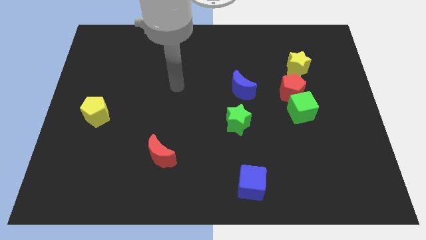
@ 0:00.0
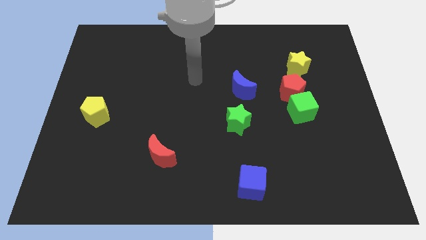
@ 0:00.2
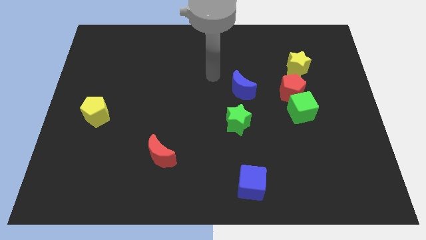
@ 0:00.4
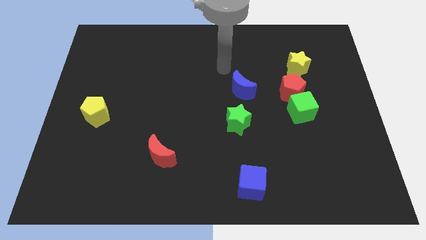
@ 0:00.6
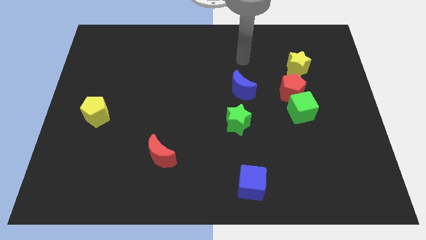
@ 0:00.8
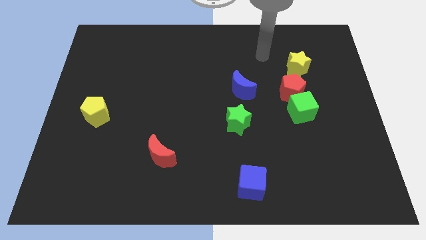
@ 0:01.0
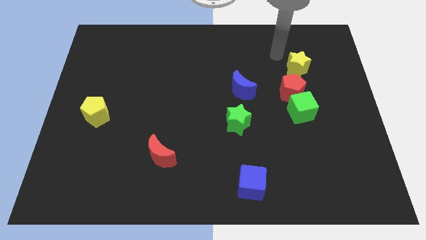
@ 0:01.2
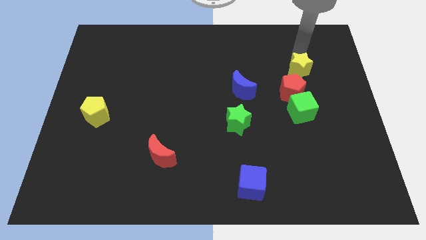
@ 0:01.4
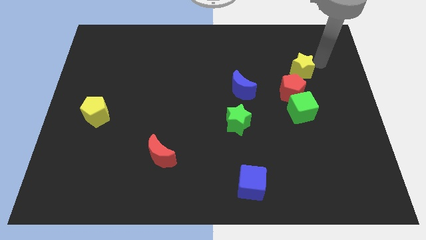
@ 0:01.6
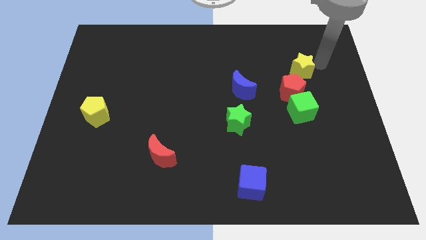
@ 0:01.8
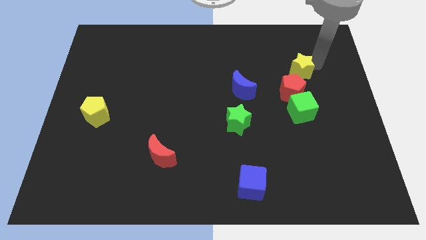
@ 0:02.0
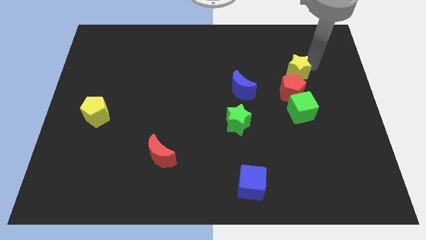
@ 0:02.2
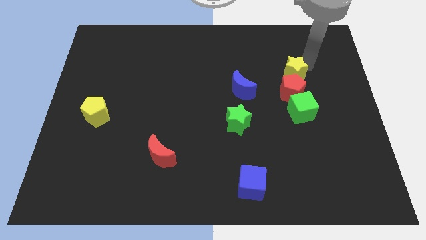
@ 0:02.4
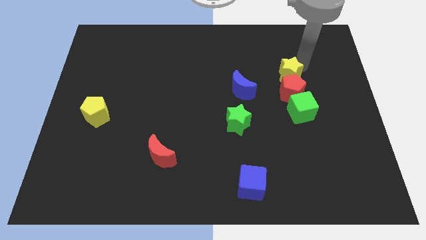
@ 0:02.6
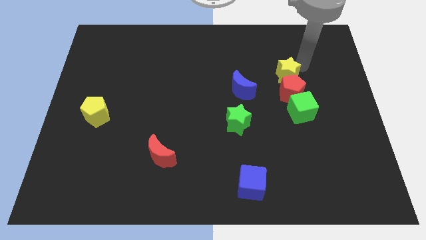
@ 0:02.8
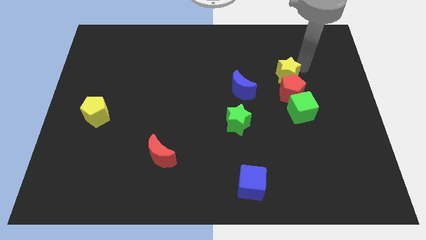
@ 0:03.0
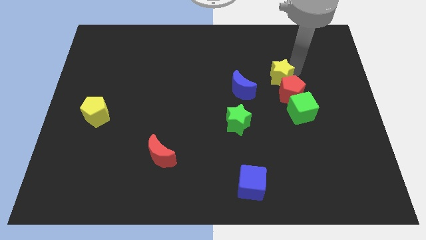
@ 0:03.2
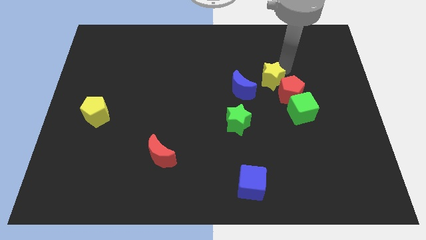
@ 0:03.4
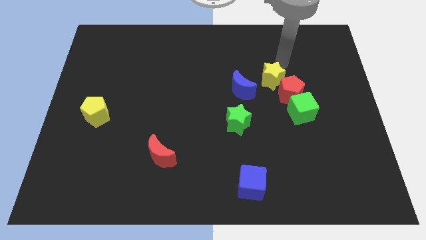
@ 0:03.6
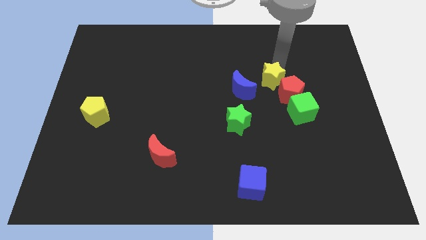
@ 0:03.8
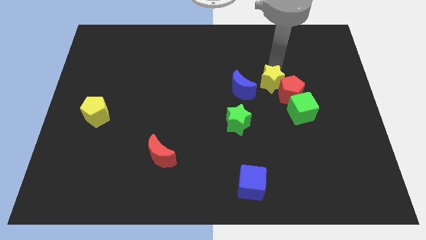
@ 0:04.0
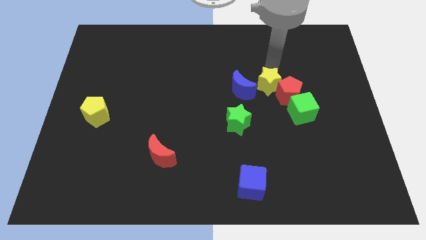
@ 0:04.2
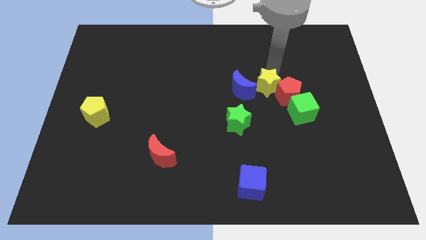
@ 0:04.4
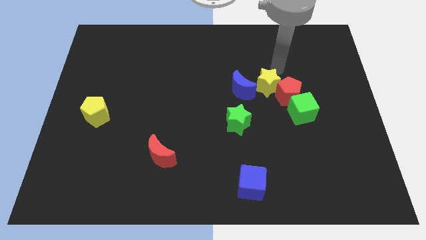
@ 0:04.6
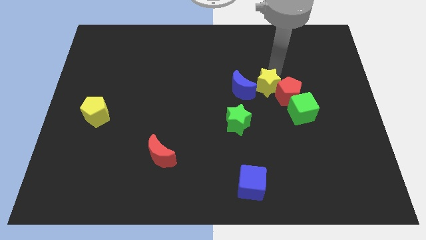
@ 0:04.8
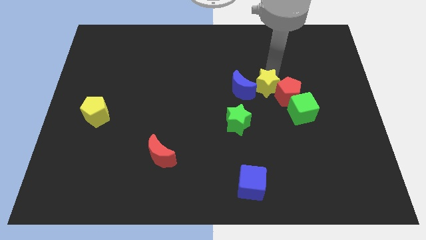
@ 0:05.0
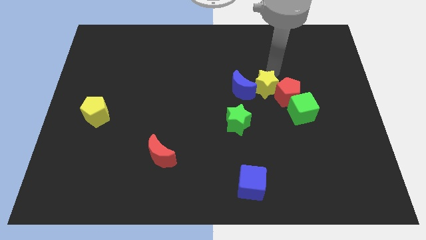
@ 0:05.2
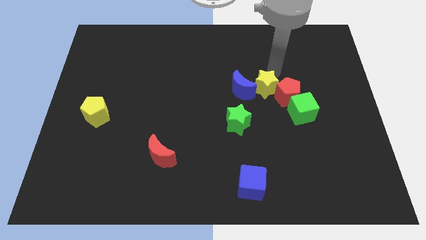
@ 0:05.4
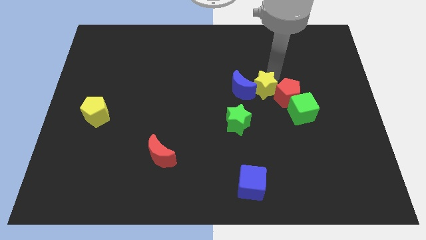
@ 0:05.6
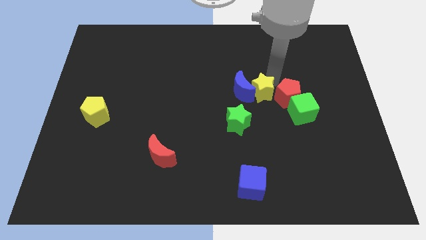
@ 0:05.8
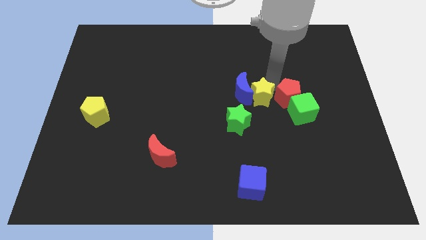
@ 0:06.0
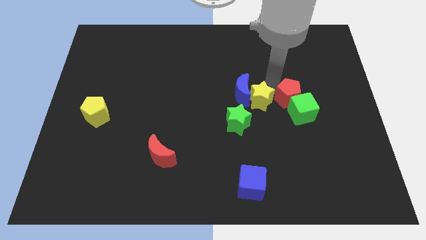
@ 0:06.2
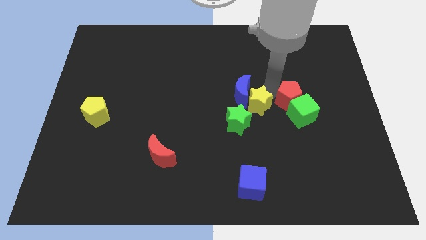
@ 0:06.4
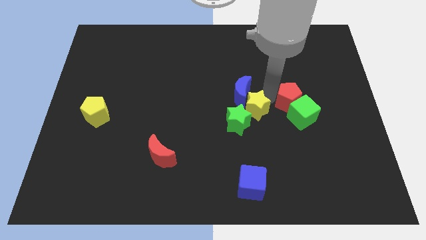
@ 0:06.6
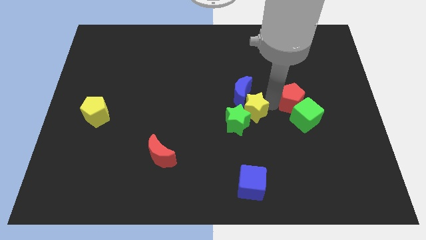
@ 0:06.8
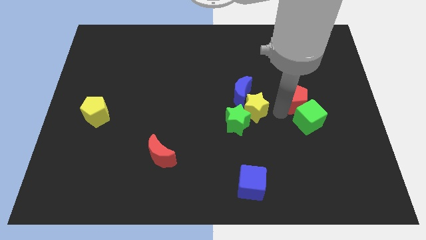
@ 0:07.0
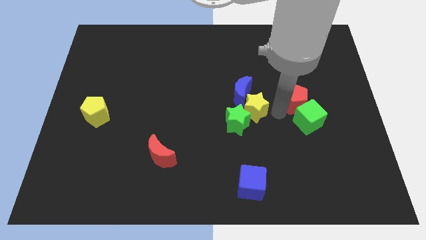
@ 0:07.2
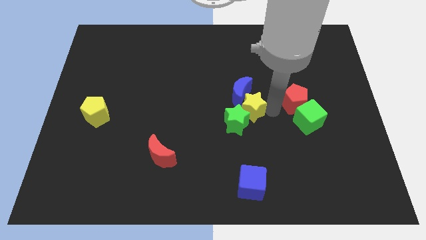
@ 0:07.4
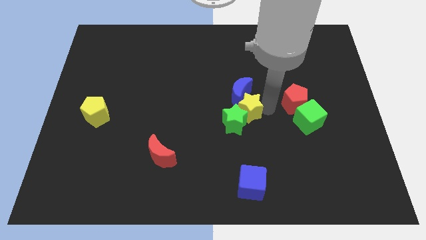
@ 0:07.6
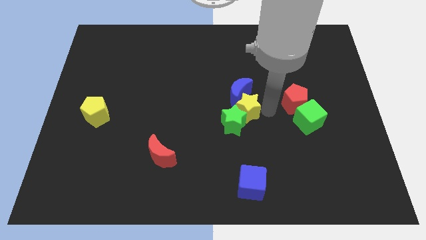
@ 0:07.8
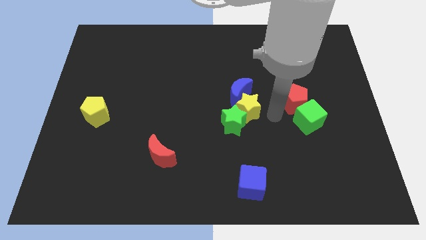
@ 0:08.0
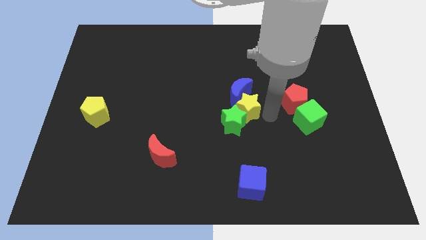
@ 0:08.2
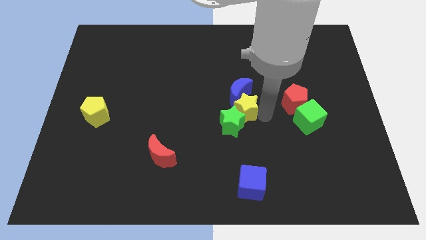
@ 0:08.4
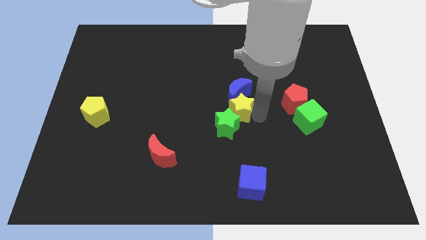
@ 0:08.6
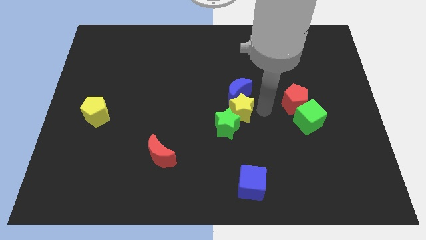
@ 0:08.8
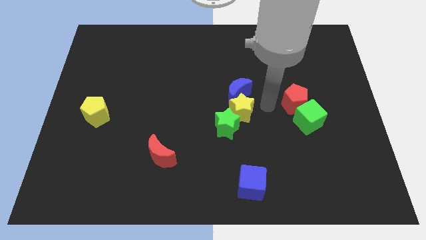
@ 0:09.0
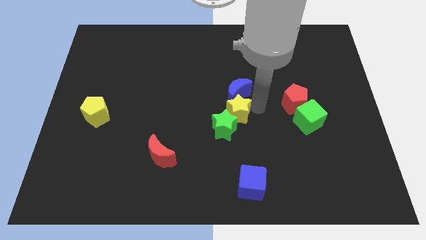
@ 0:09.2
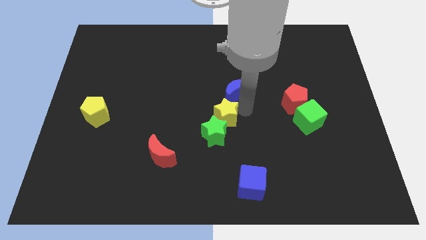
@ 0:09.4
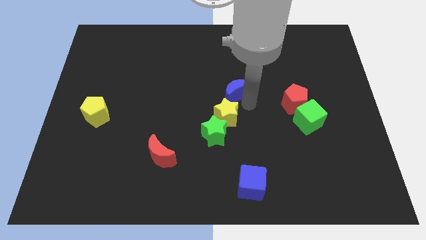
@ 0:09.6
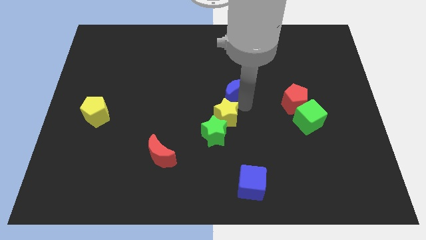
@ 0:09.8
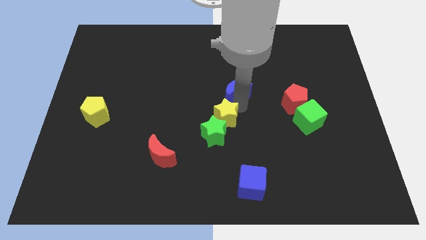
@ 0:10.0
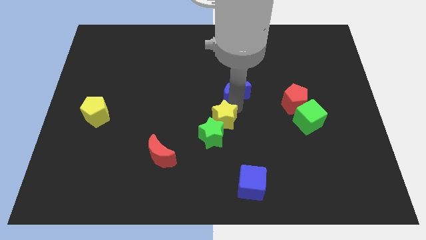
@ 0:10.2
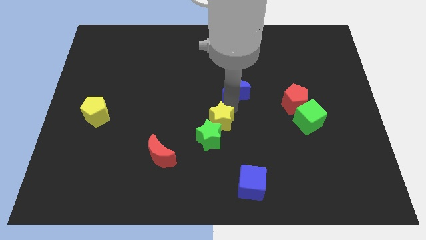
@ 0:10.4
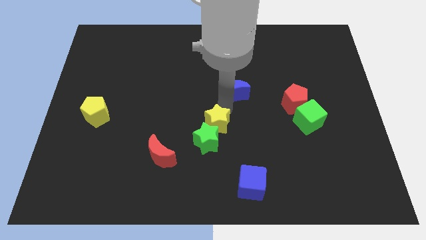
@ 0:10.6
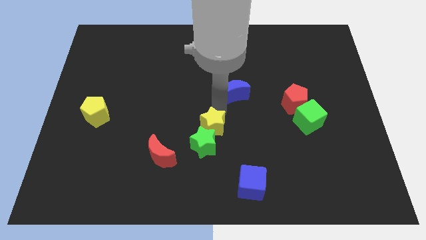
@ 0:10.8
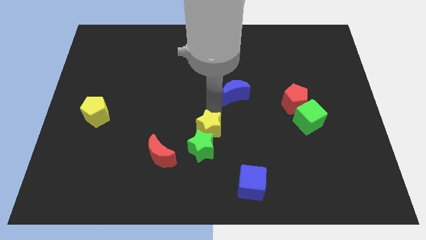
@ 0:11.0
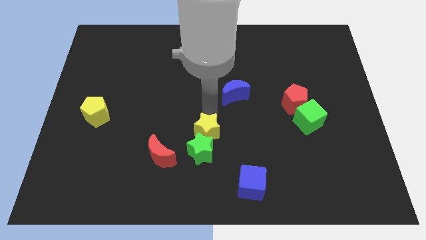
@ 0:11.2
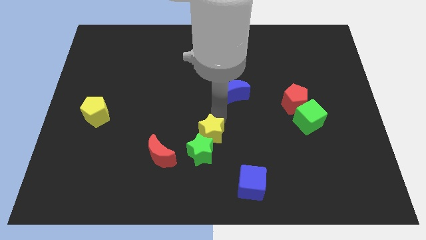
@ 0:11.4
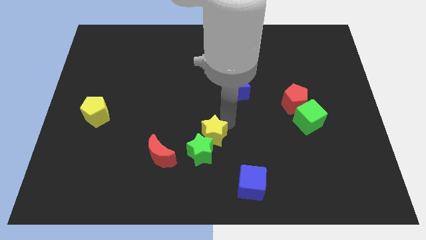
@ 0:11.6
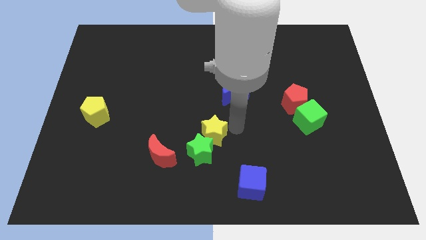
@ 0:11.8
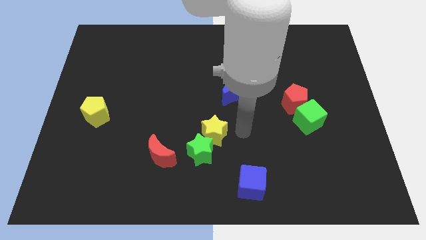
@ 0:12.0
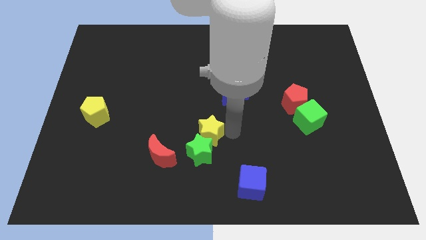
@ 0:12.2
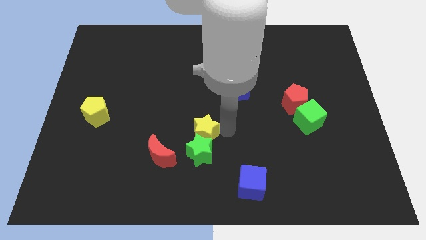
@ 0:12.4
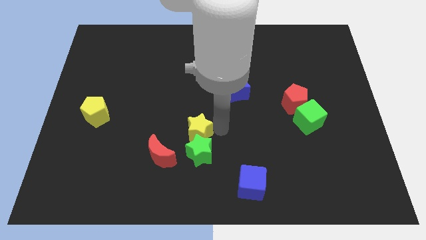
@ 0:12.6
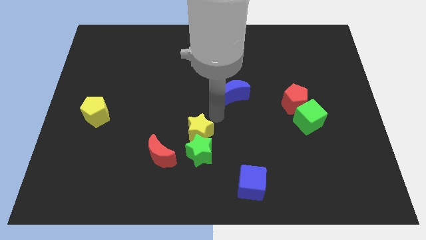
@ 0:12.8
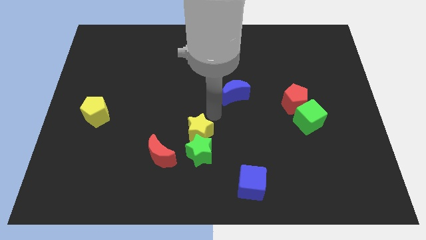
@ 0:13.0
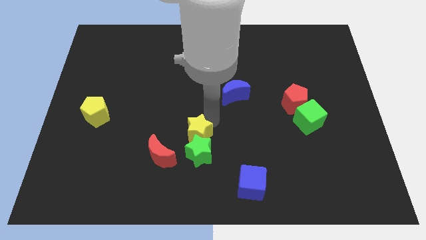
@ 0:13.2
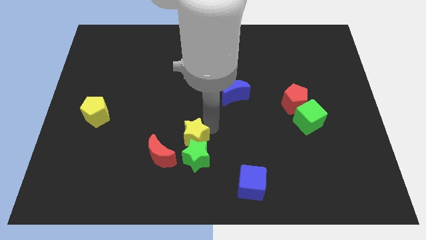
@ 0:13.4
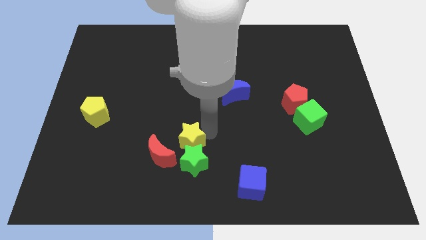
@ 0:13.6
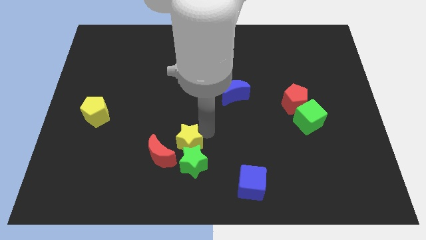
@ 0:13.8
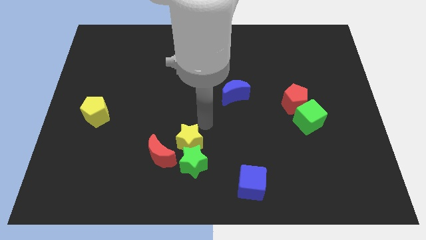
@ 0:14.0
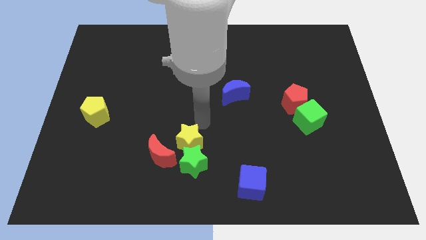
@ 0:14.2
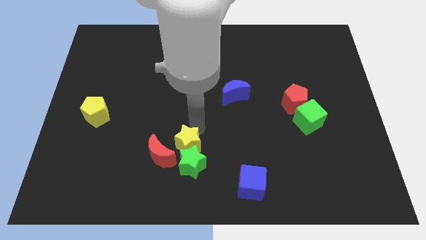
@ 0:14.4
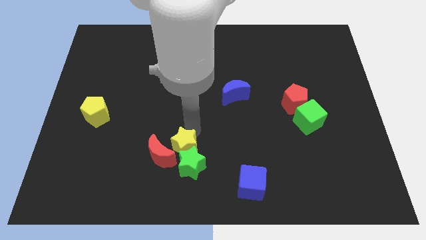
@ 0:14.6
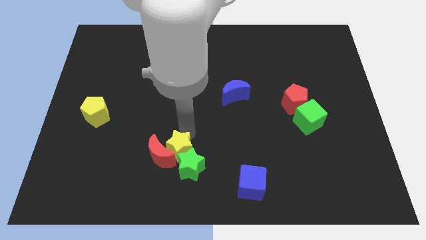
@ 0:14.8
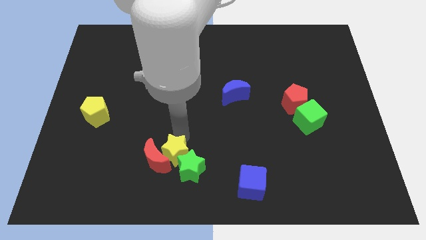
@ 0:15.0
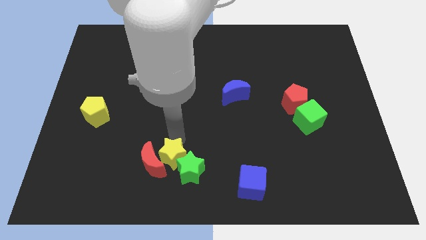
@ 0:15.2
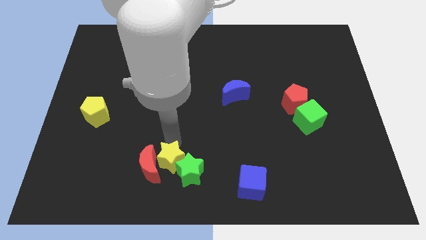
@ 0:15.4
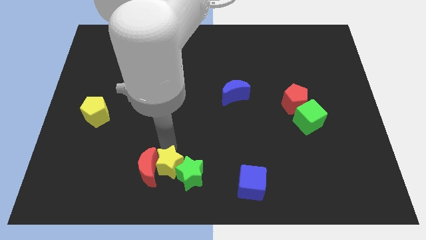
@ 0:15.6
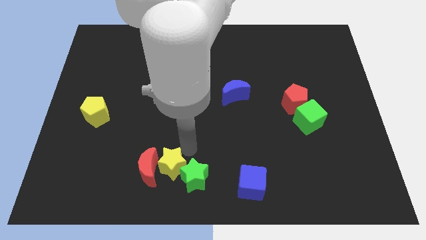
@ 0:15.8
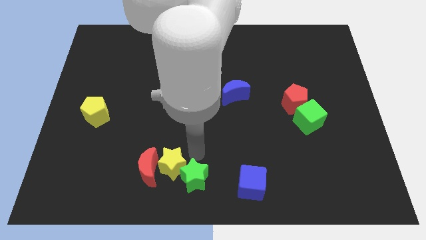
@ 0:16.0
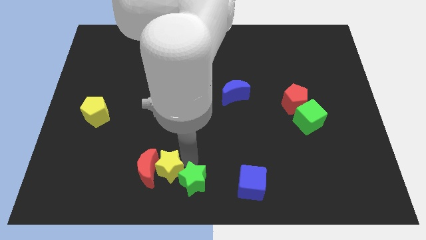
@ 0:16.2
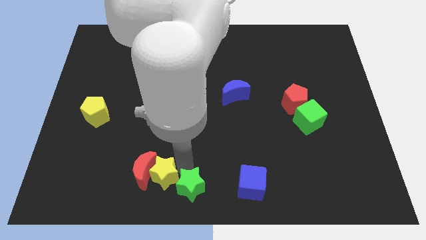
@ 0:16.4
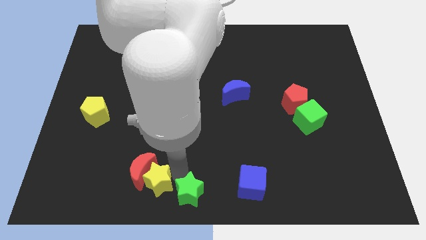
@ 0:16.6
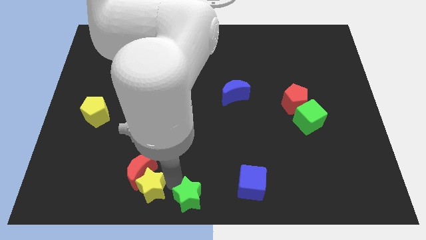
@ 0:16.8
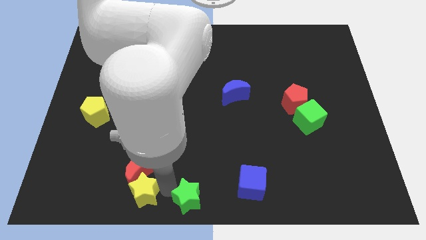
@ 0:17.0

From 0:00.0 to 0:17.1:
slide the yellow star to the bottom left side of the red moon
